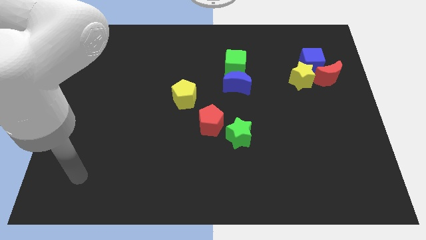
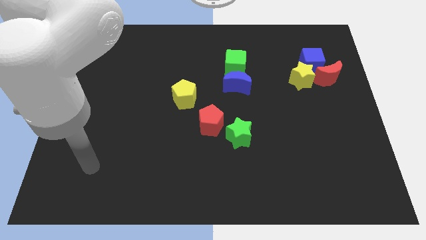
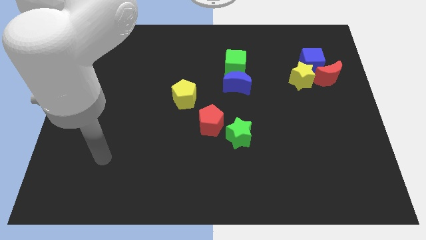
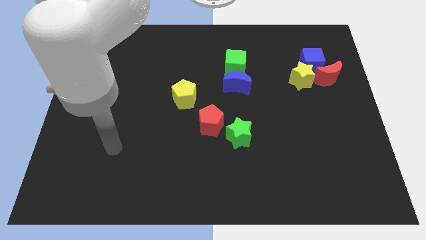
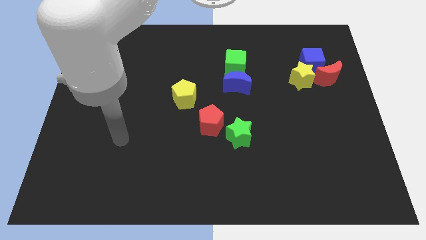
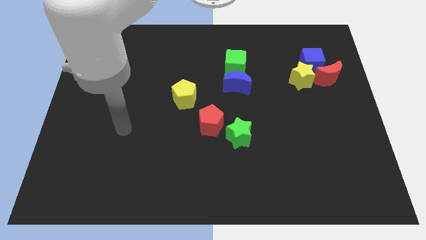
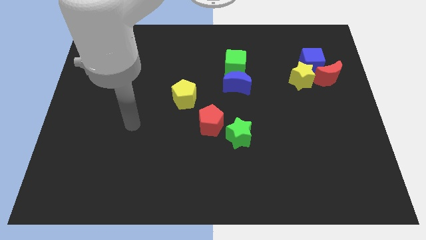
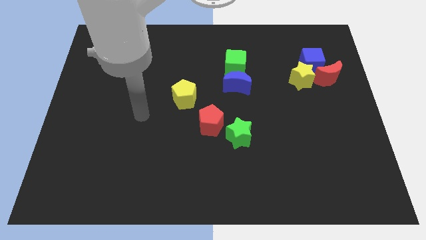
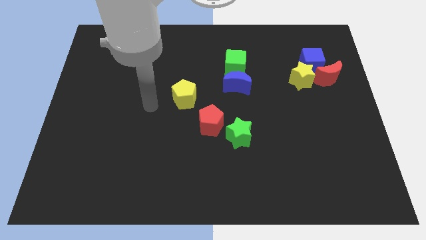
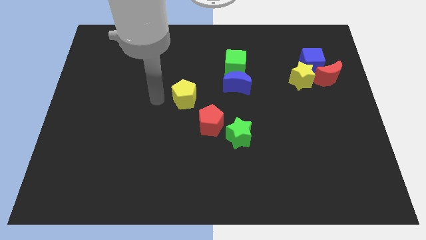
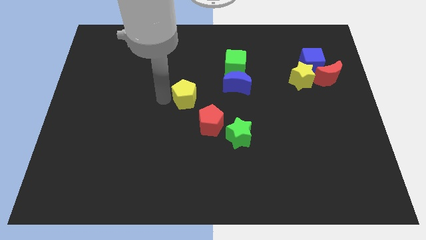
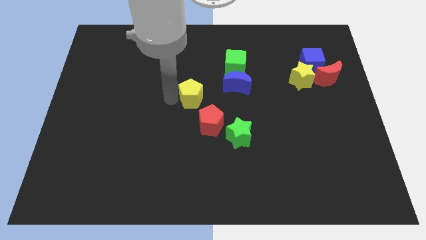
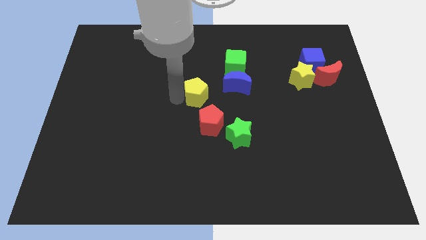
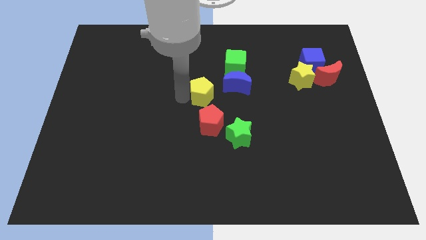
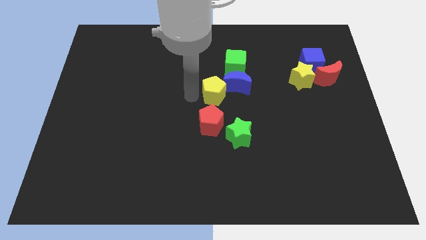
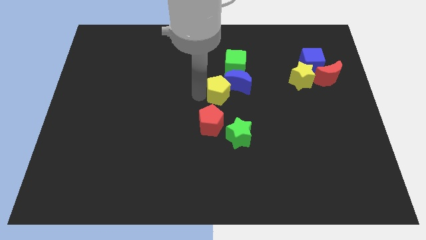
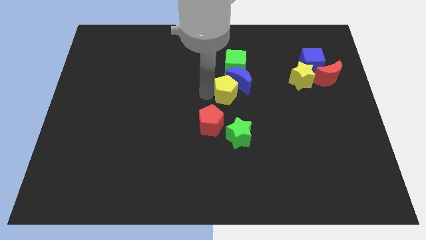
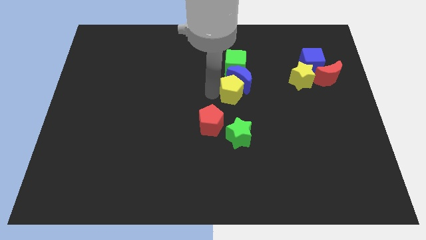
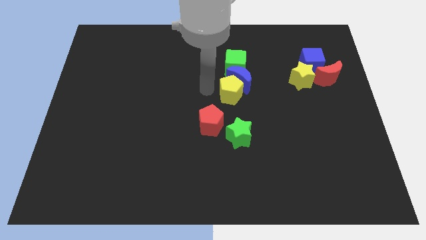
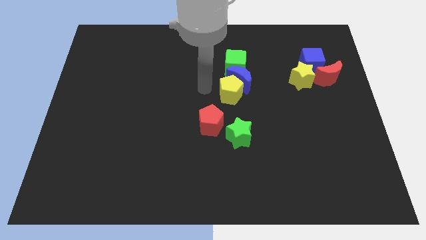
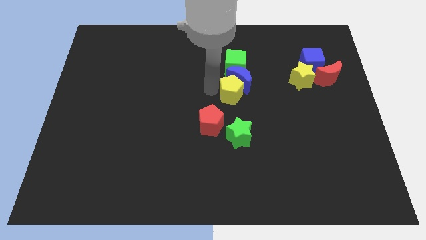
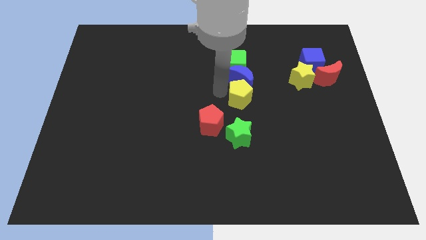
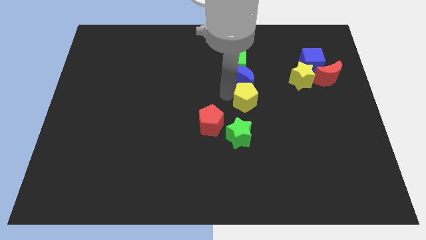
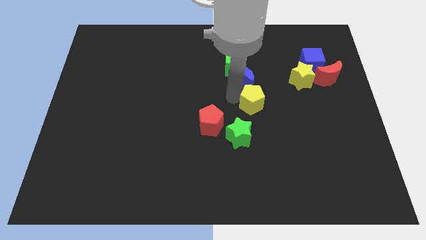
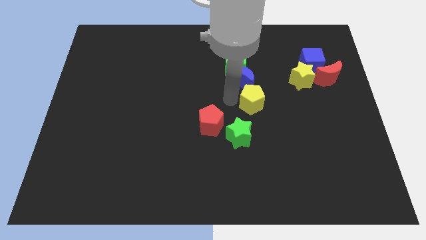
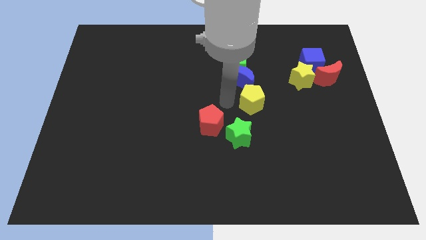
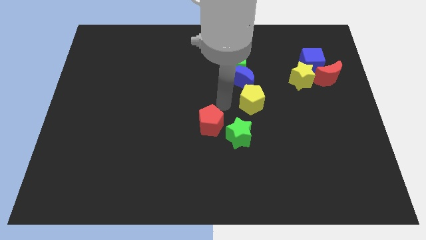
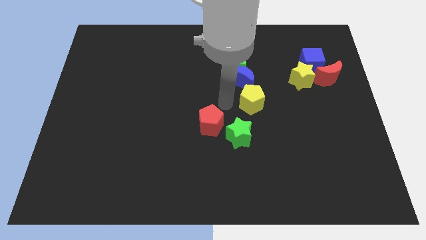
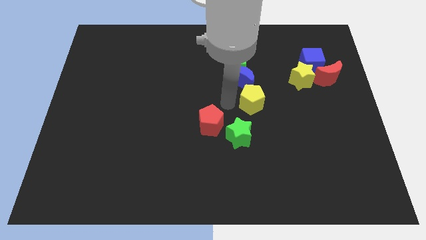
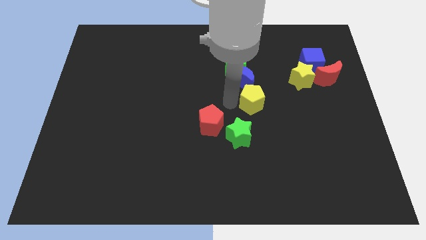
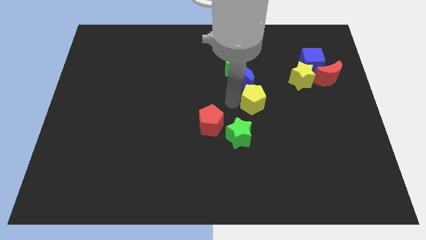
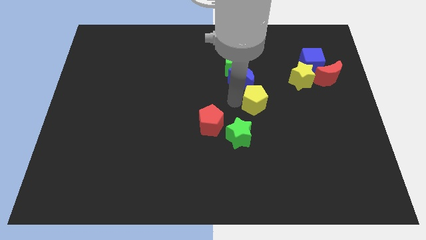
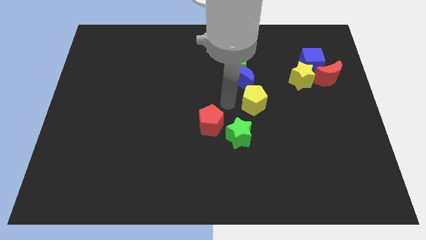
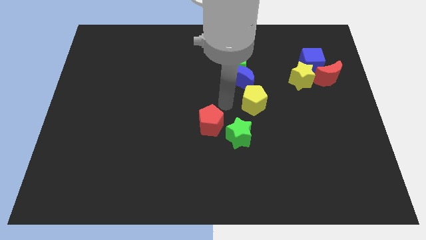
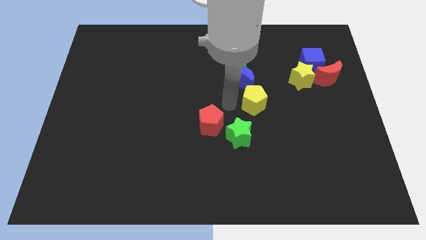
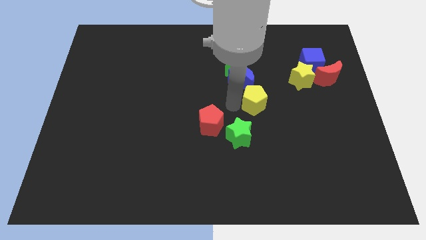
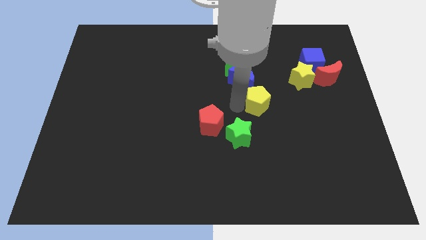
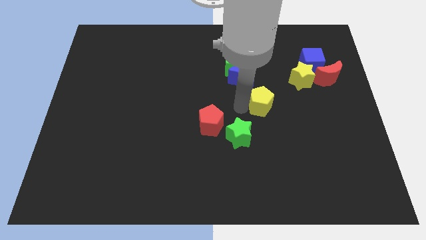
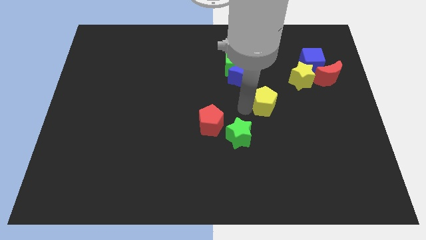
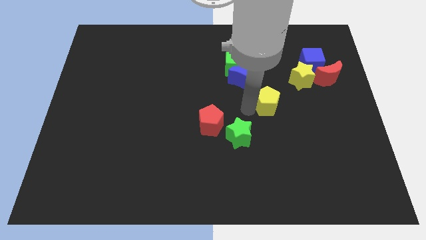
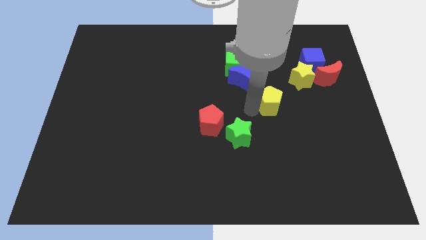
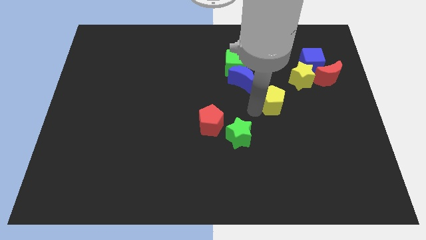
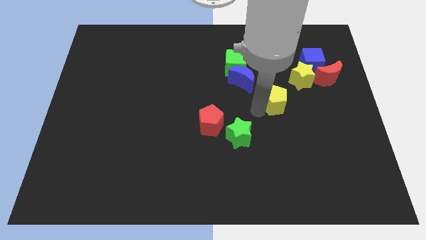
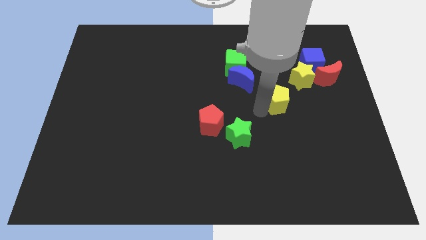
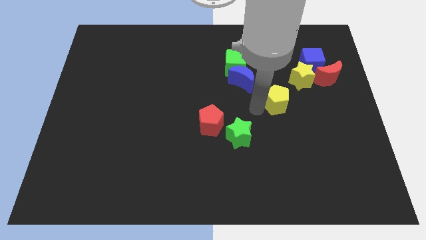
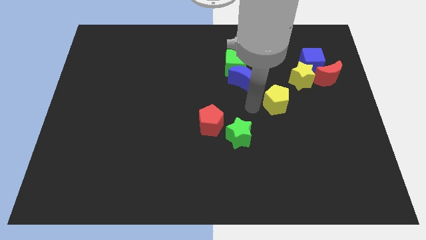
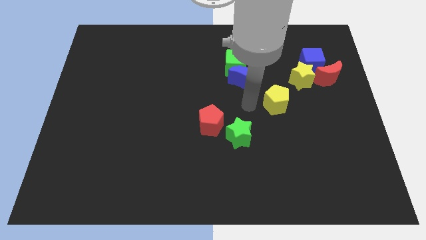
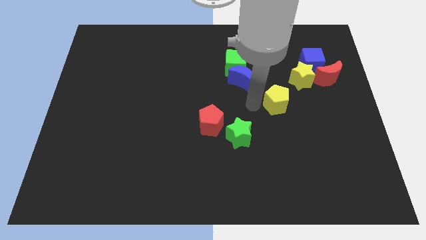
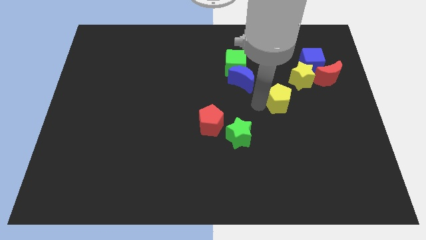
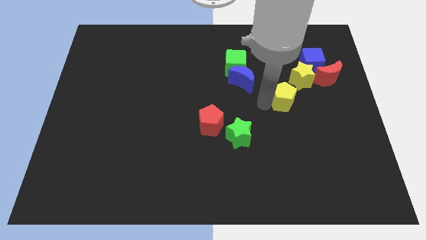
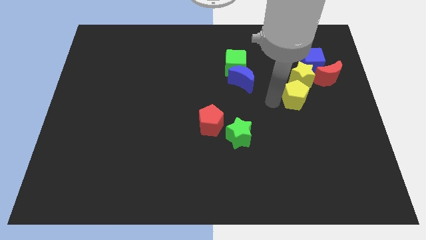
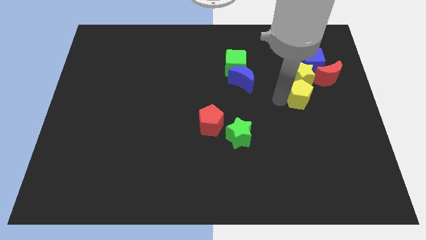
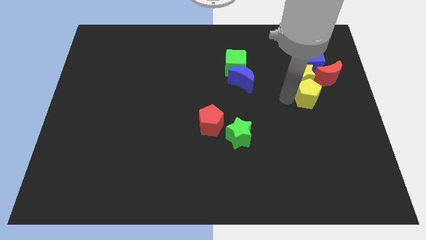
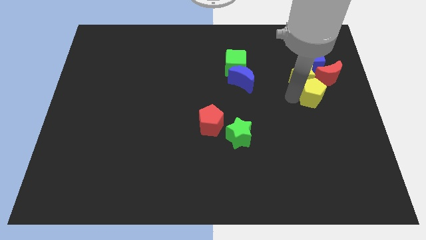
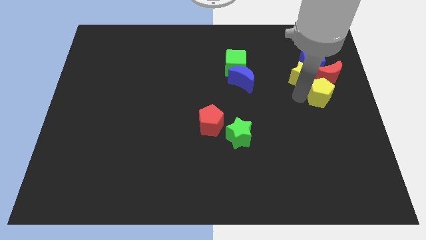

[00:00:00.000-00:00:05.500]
put the yellow pentagon to the right side

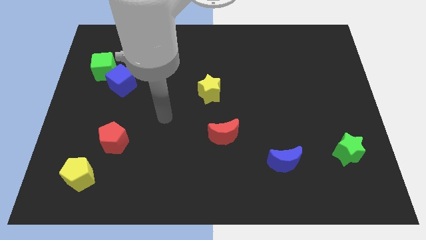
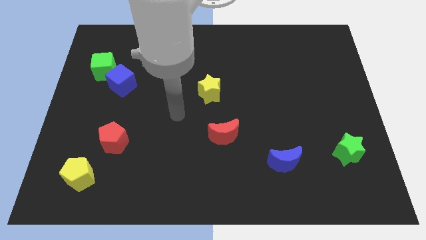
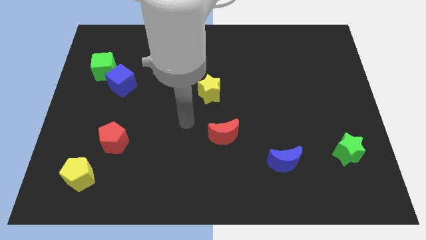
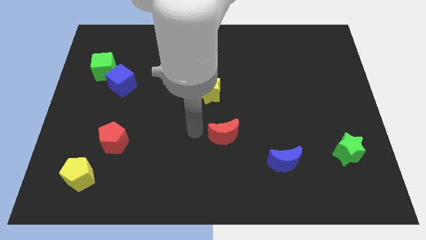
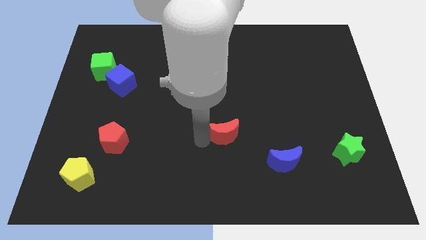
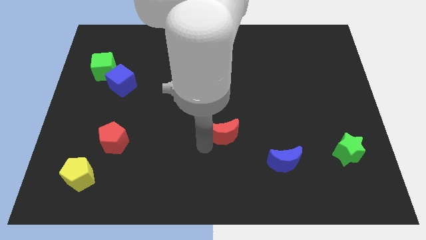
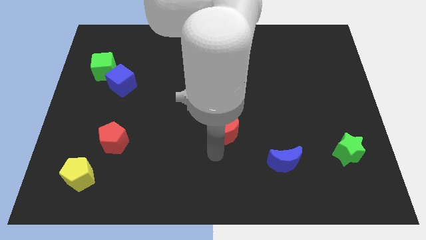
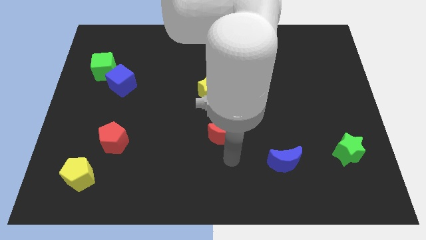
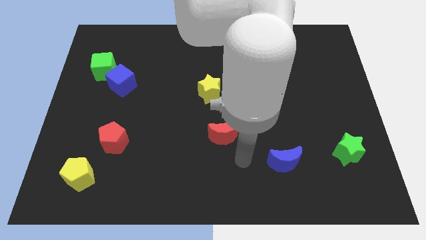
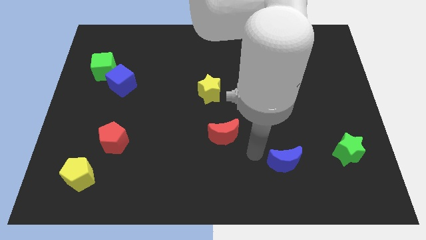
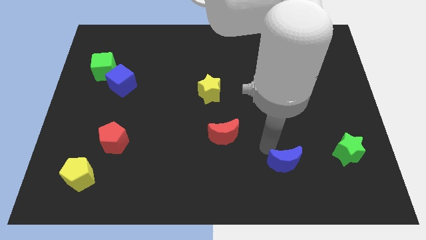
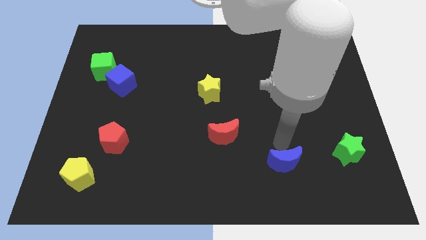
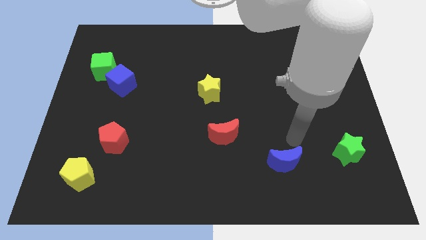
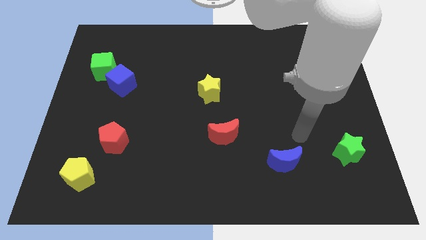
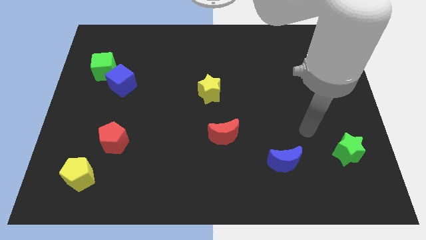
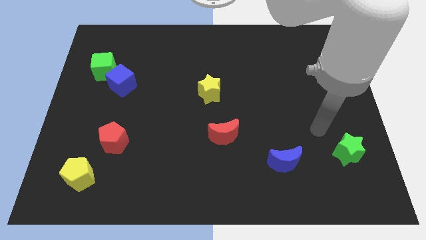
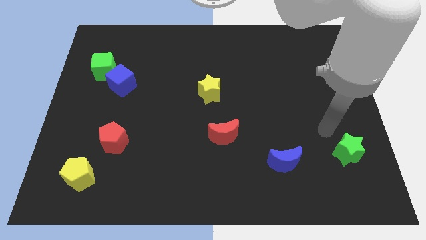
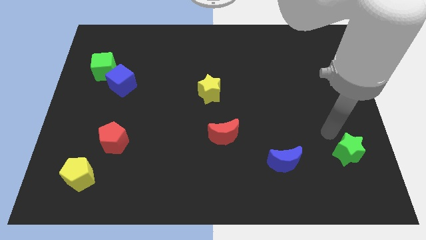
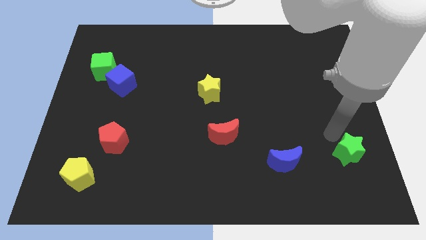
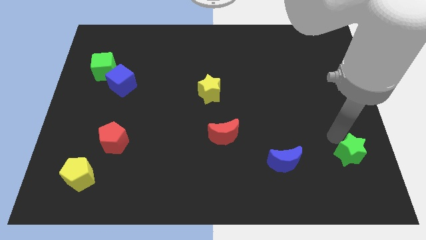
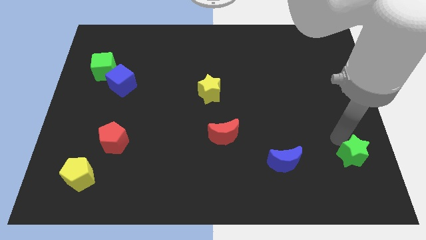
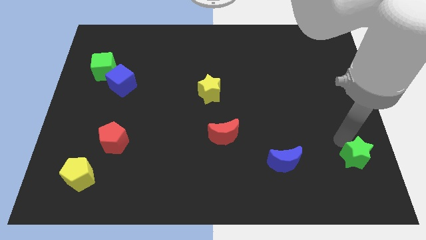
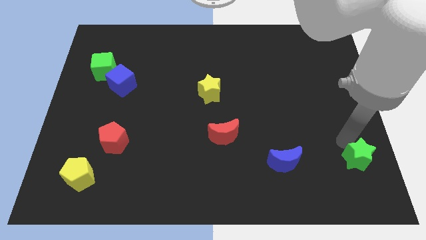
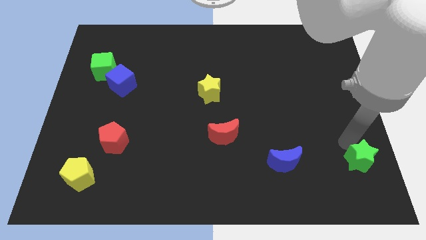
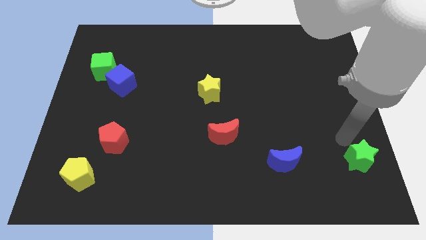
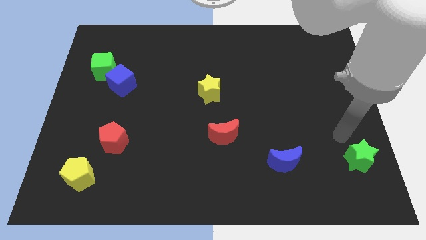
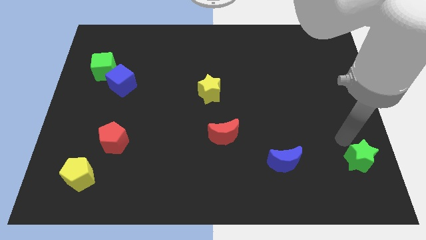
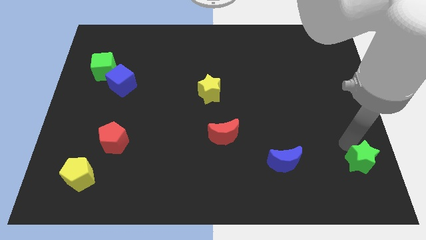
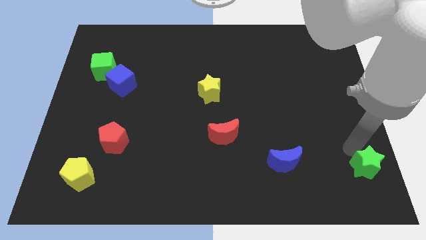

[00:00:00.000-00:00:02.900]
put the green star to the bottom right of the board
